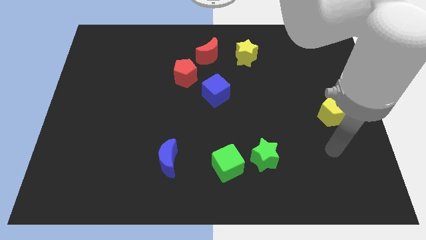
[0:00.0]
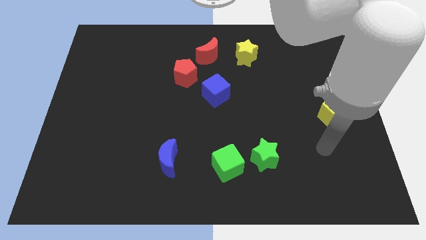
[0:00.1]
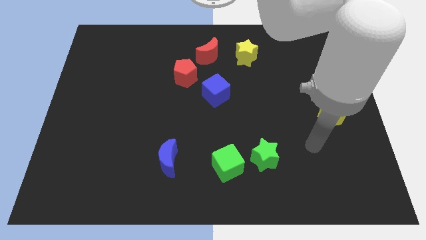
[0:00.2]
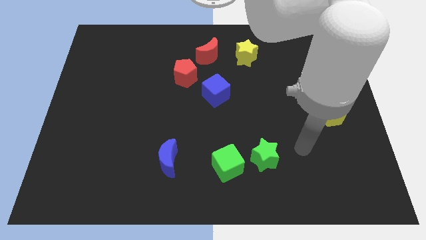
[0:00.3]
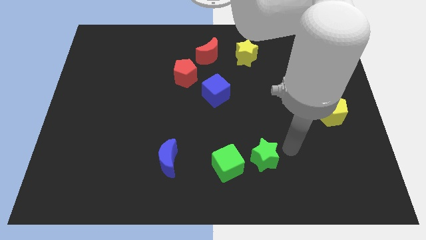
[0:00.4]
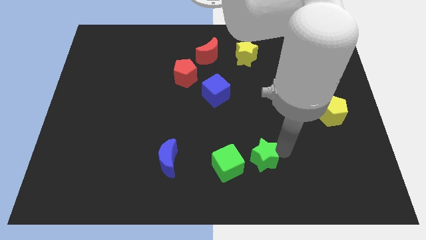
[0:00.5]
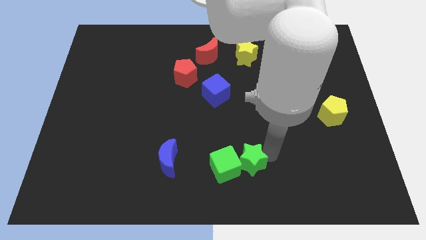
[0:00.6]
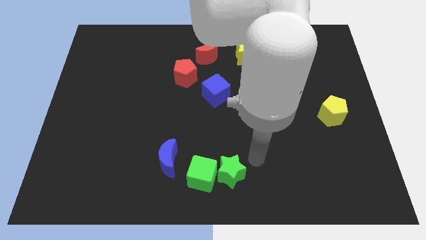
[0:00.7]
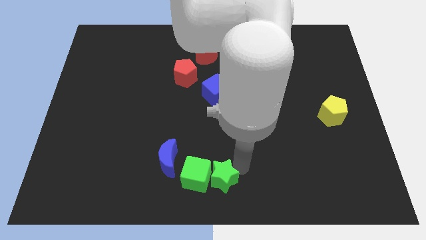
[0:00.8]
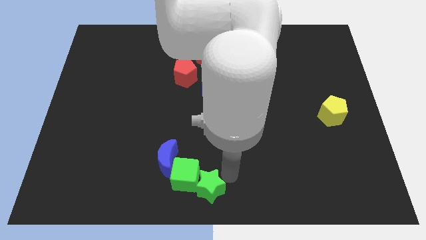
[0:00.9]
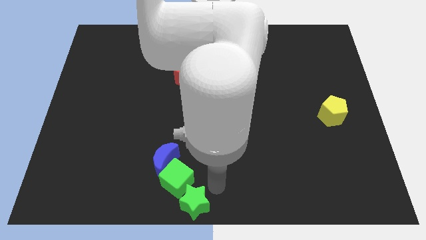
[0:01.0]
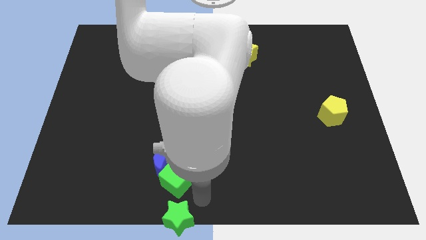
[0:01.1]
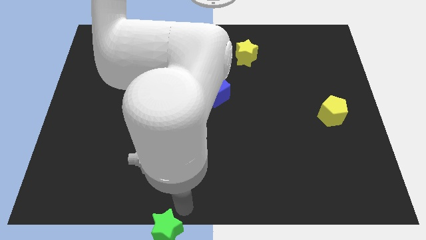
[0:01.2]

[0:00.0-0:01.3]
pull the green cube apart from the green star

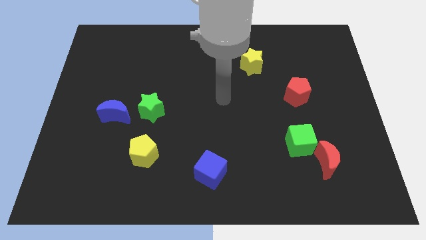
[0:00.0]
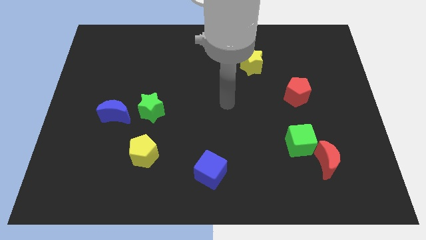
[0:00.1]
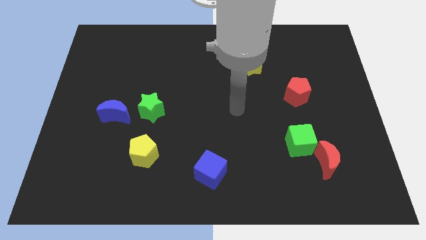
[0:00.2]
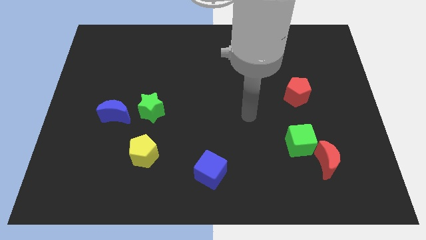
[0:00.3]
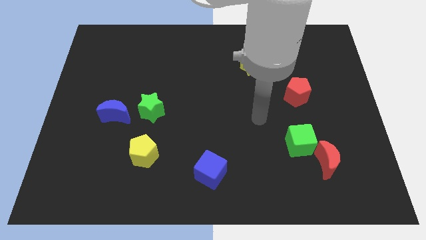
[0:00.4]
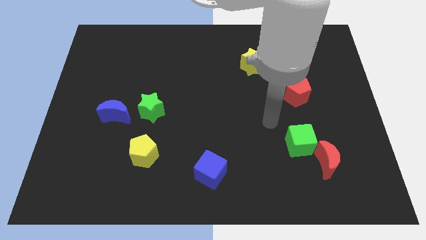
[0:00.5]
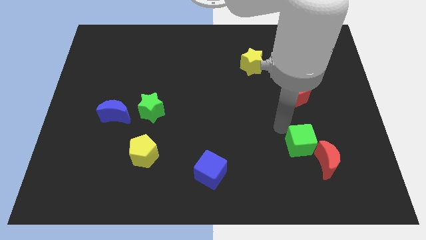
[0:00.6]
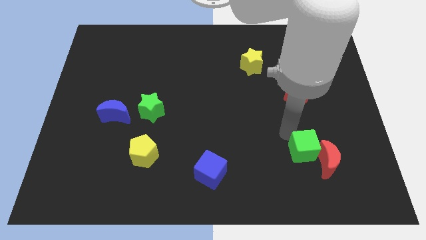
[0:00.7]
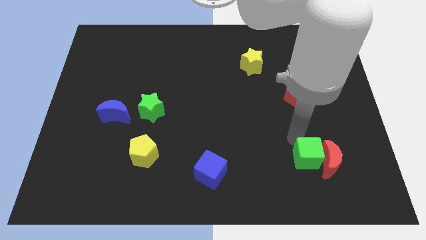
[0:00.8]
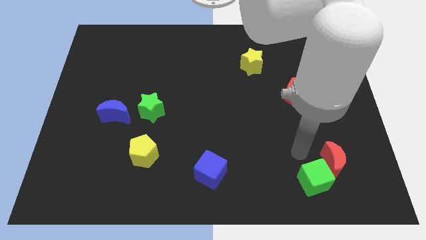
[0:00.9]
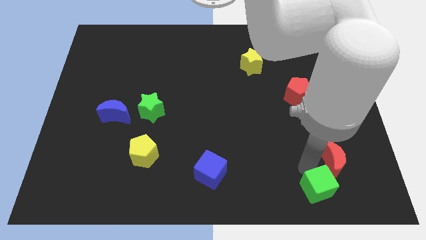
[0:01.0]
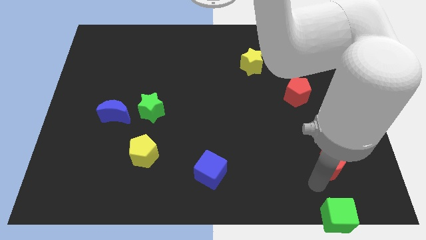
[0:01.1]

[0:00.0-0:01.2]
separate the red moon from the green cube

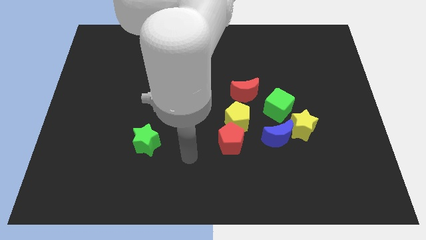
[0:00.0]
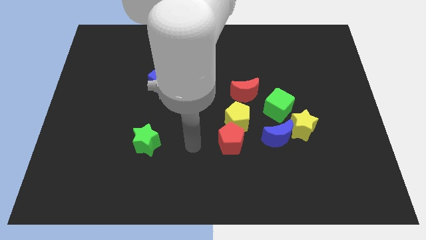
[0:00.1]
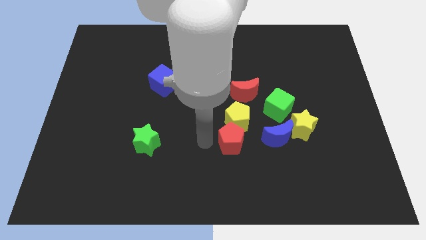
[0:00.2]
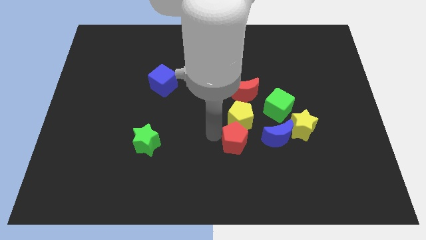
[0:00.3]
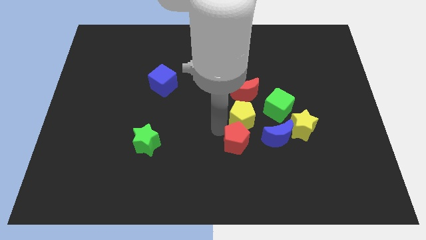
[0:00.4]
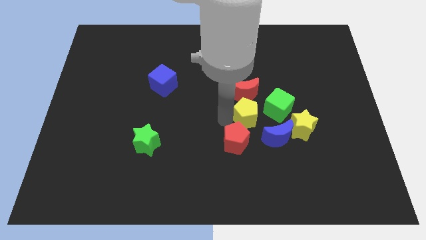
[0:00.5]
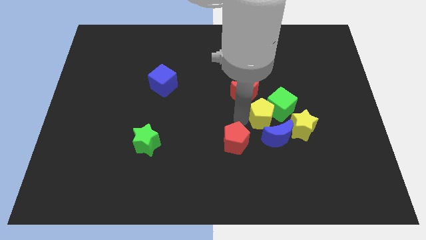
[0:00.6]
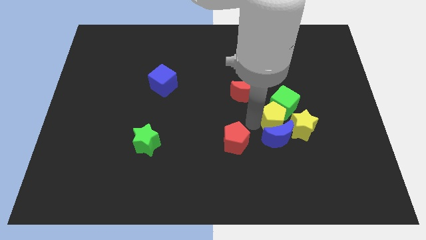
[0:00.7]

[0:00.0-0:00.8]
move the red pentagon away from the yellow pentagon

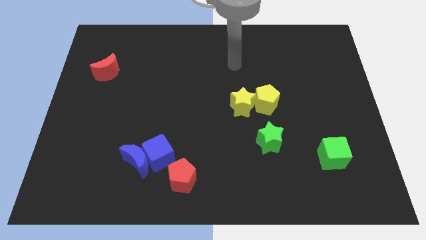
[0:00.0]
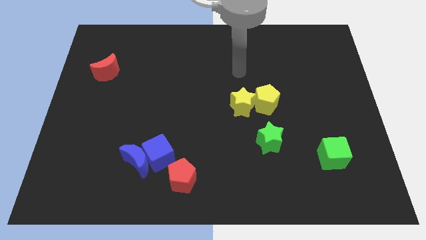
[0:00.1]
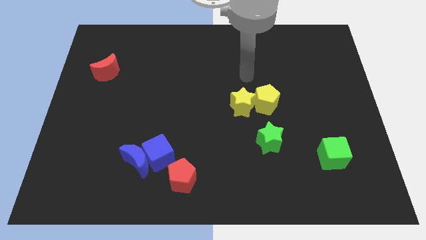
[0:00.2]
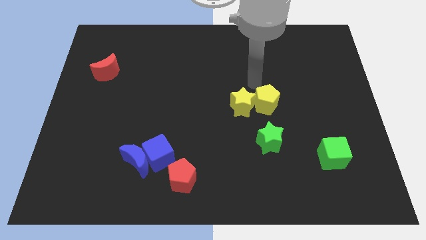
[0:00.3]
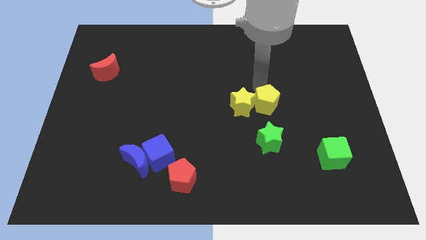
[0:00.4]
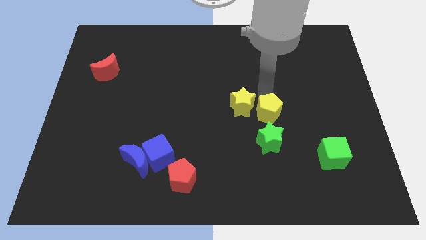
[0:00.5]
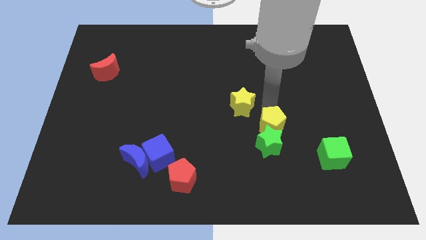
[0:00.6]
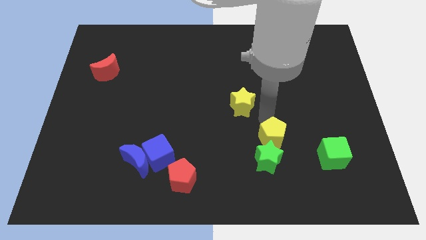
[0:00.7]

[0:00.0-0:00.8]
move the yellow star away from the yellow pentagon

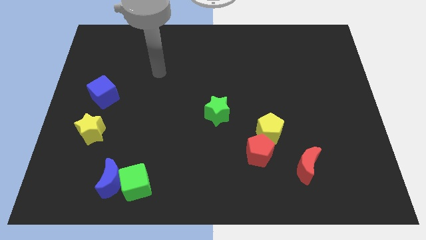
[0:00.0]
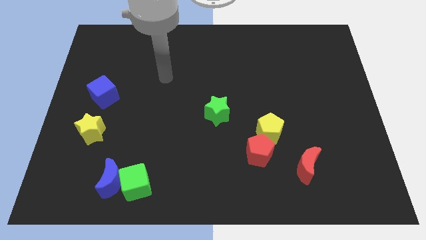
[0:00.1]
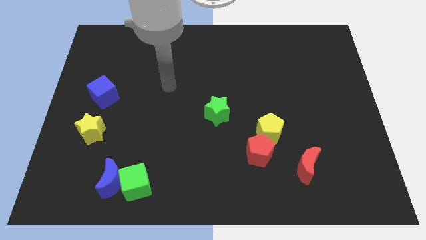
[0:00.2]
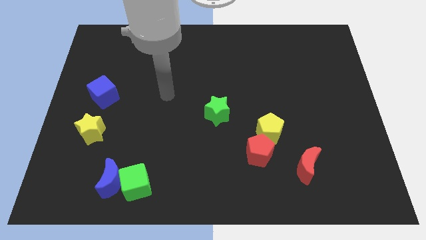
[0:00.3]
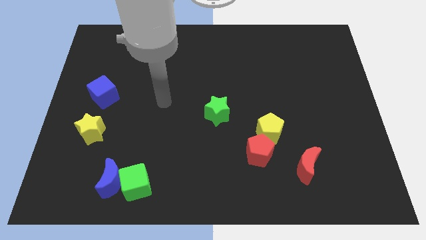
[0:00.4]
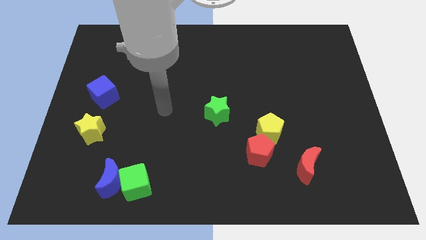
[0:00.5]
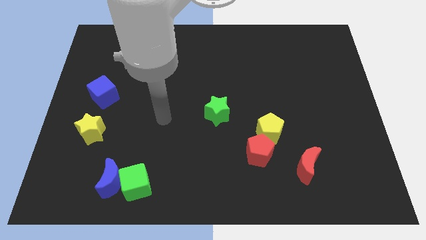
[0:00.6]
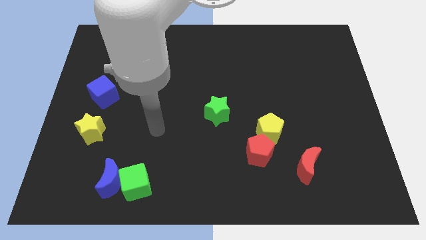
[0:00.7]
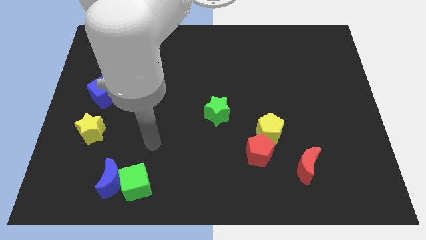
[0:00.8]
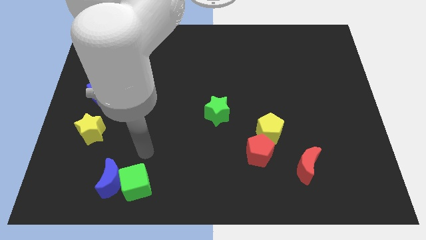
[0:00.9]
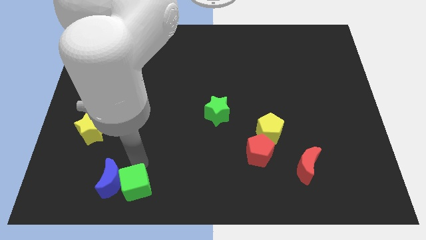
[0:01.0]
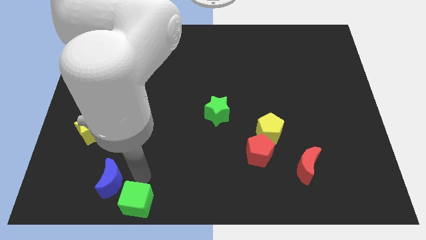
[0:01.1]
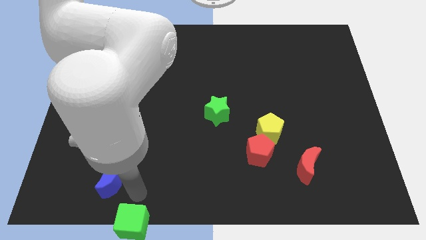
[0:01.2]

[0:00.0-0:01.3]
separate the blue moon from the green cube

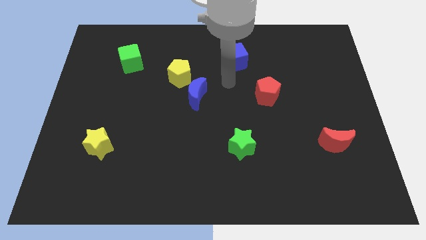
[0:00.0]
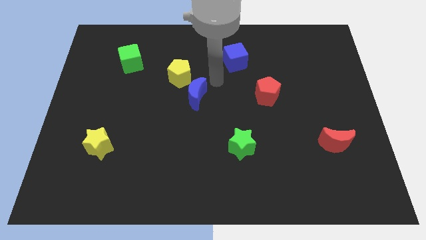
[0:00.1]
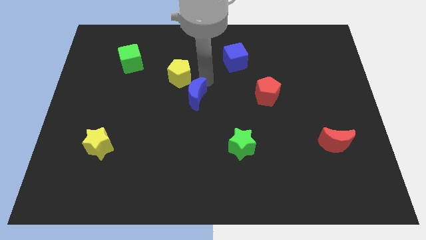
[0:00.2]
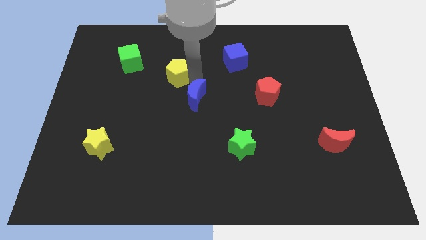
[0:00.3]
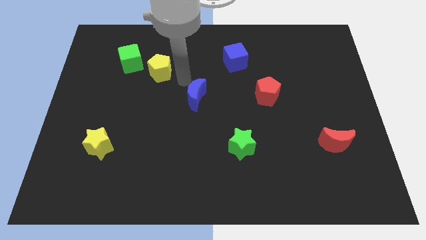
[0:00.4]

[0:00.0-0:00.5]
pull the blue moon apart from the yellow pentagon

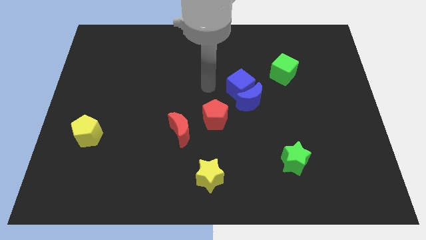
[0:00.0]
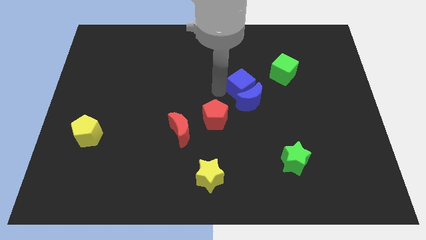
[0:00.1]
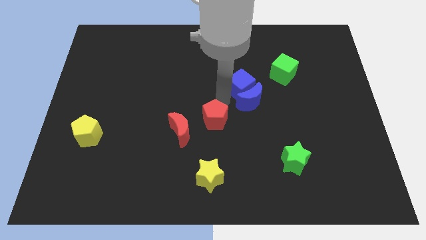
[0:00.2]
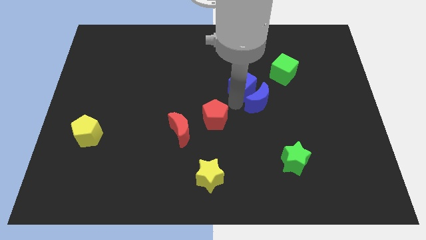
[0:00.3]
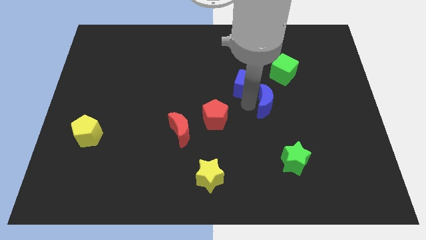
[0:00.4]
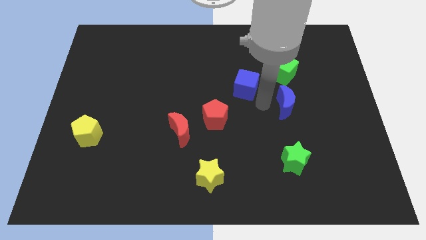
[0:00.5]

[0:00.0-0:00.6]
pull the blue cube apart from the blue moon

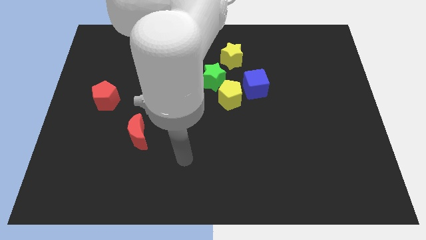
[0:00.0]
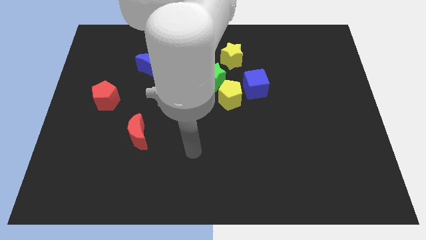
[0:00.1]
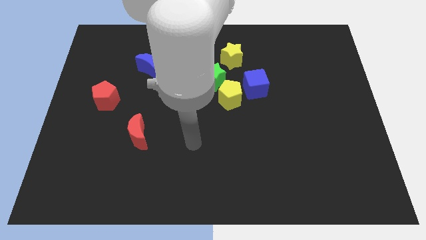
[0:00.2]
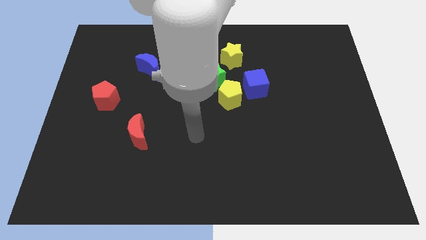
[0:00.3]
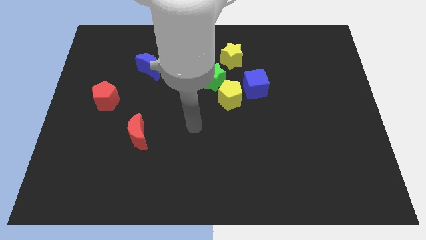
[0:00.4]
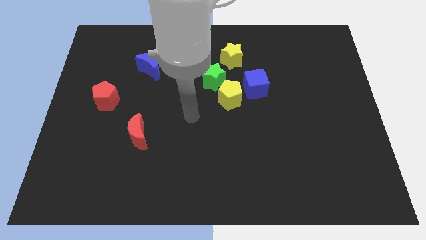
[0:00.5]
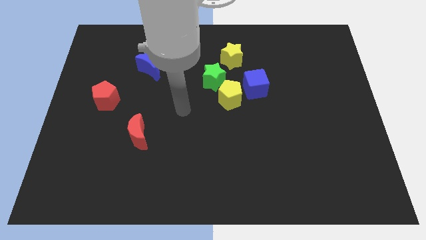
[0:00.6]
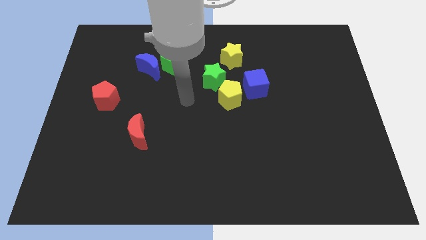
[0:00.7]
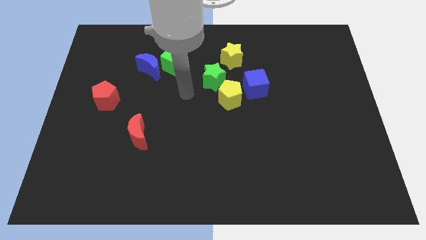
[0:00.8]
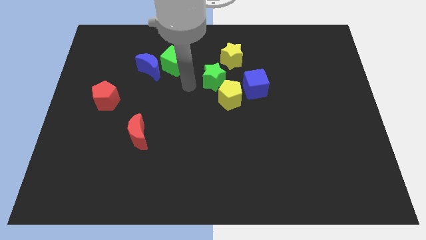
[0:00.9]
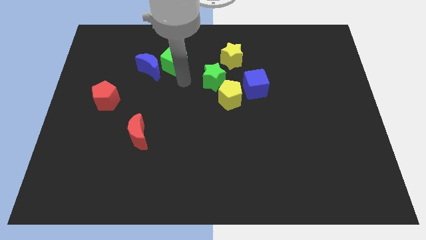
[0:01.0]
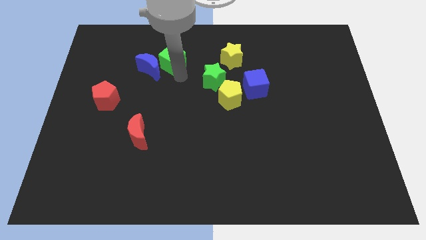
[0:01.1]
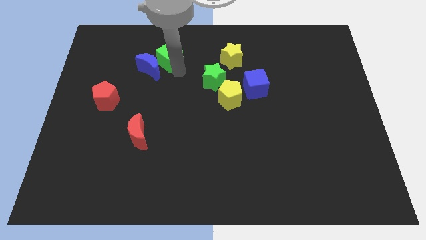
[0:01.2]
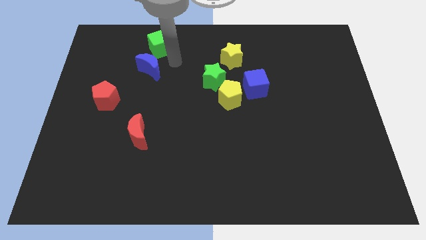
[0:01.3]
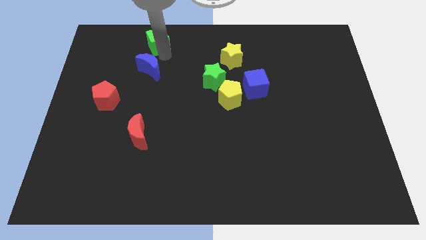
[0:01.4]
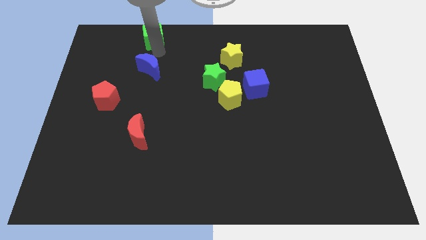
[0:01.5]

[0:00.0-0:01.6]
pull the blue moon apart from the green cube

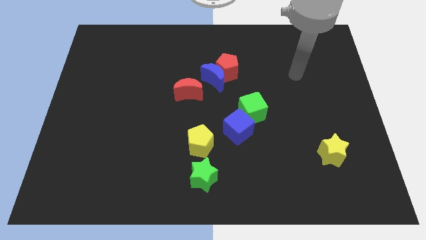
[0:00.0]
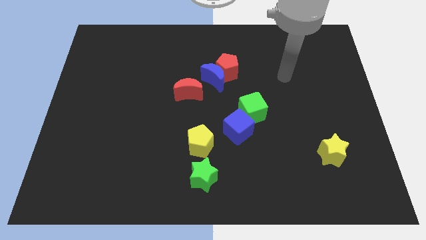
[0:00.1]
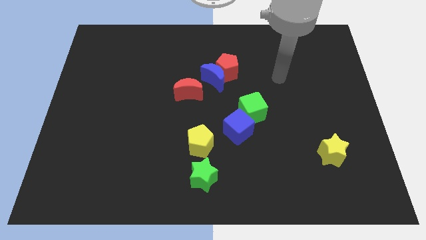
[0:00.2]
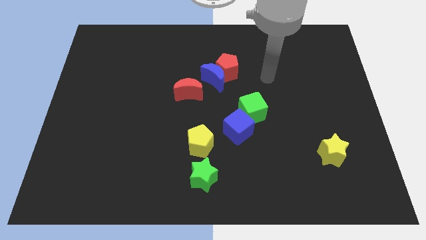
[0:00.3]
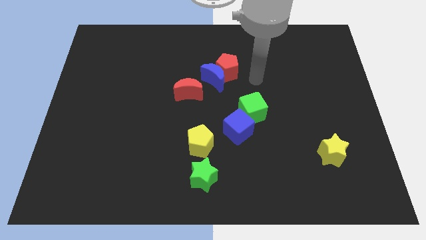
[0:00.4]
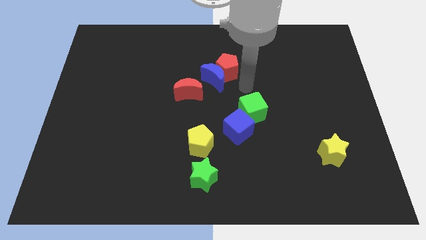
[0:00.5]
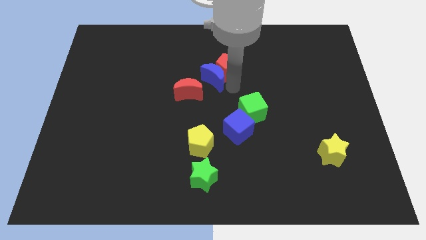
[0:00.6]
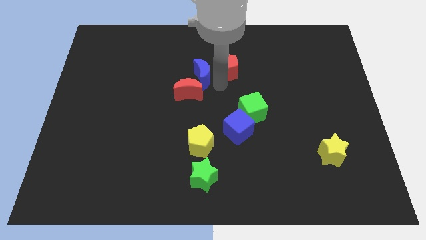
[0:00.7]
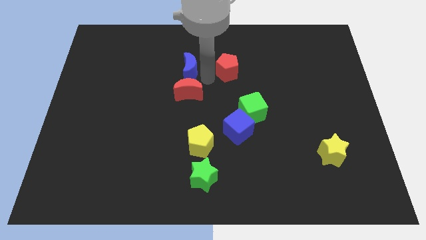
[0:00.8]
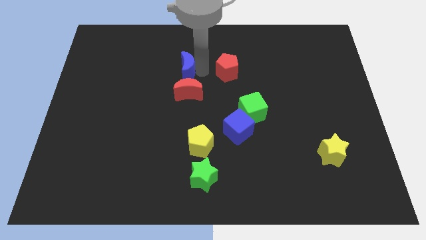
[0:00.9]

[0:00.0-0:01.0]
separate the red pentagon from the blue moon

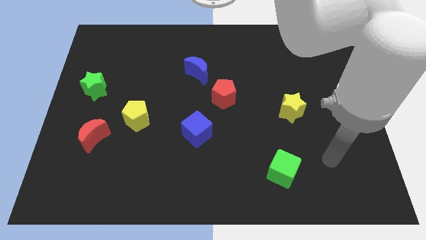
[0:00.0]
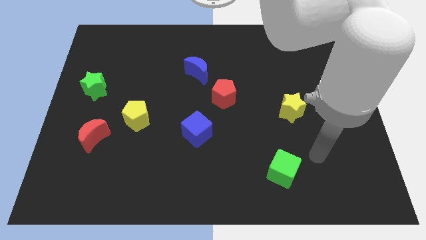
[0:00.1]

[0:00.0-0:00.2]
pull the red moon apart from the yellow pentagon

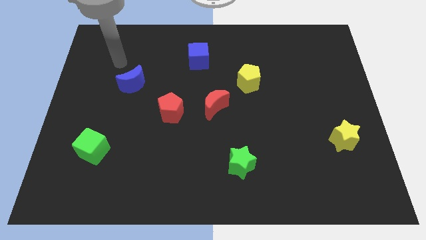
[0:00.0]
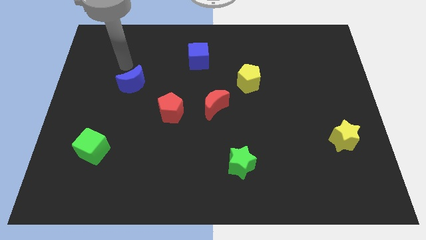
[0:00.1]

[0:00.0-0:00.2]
move the red moon away from the red pentagon
